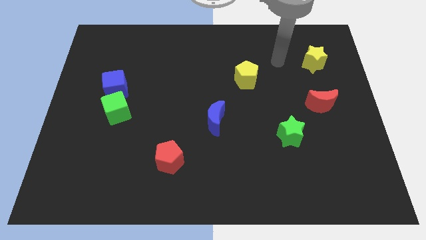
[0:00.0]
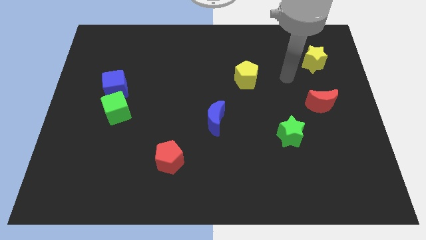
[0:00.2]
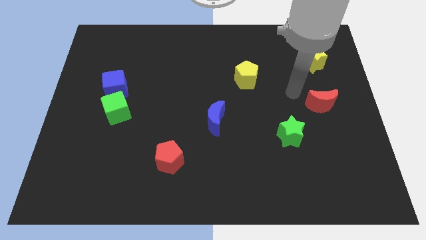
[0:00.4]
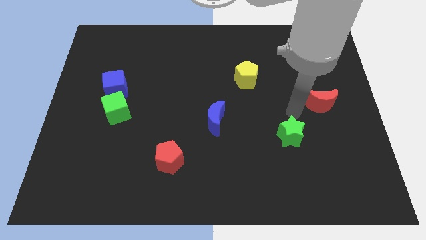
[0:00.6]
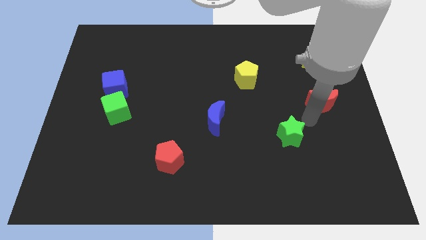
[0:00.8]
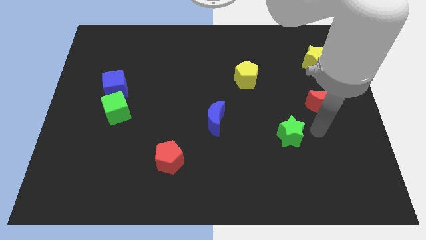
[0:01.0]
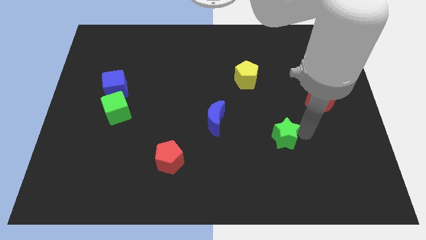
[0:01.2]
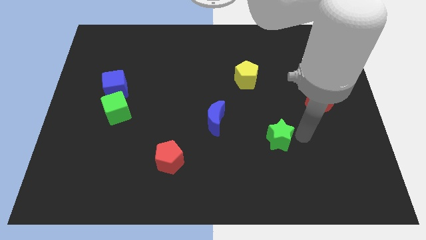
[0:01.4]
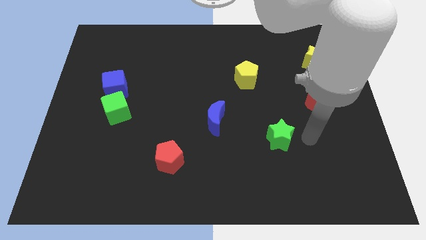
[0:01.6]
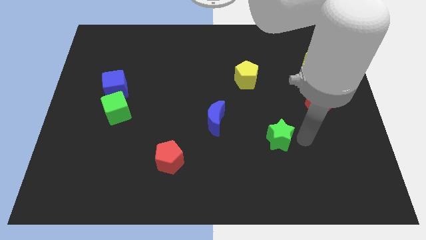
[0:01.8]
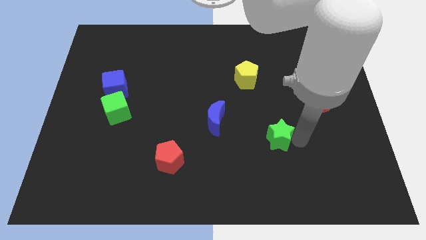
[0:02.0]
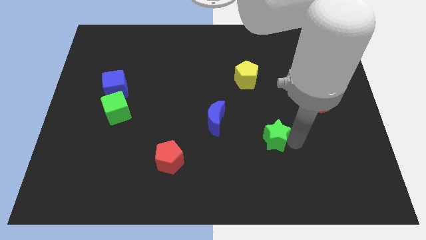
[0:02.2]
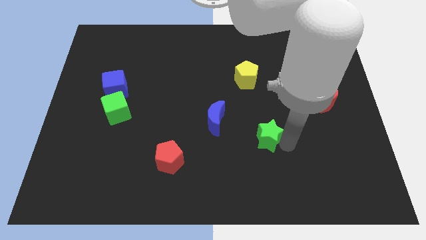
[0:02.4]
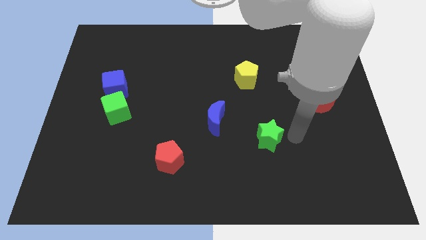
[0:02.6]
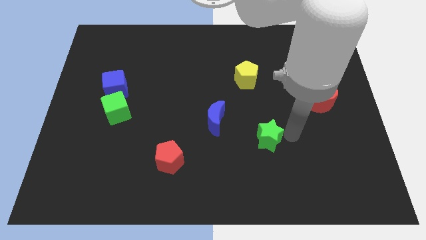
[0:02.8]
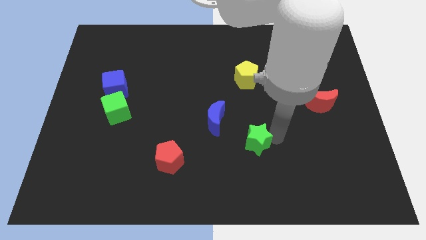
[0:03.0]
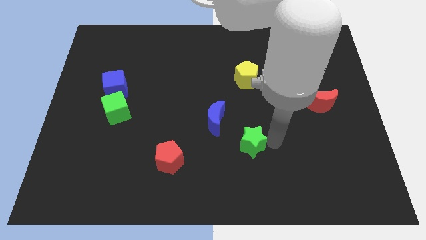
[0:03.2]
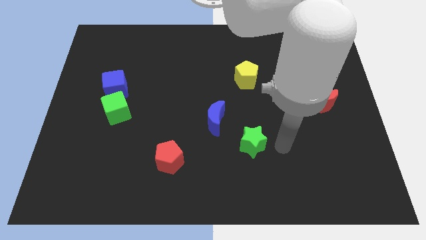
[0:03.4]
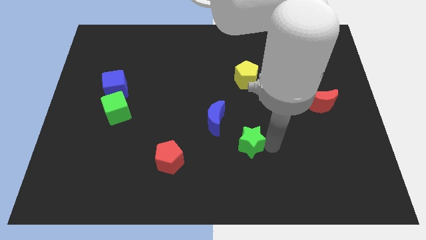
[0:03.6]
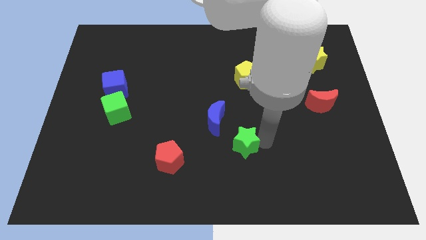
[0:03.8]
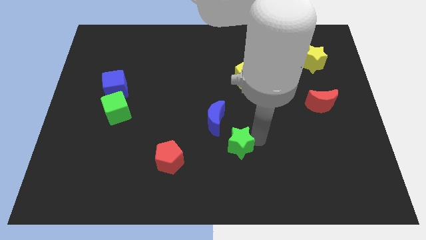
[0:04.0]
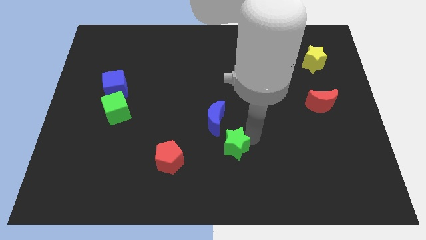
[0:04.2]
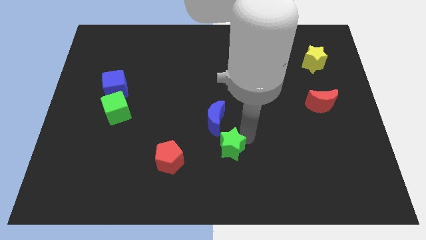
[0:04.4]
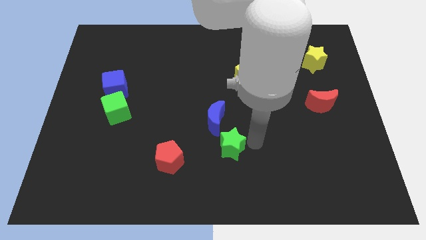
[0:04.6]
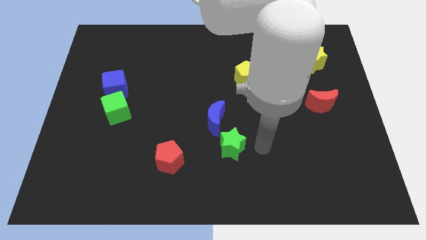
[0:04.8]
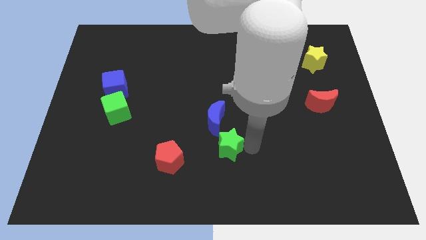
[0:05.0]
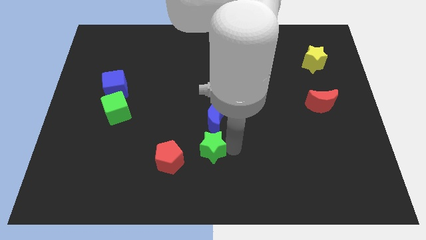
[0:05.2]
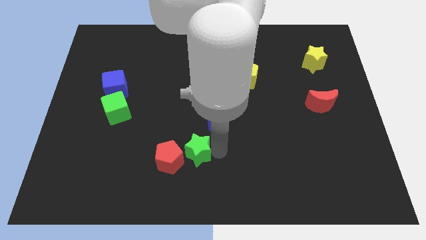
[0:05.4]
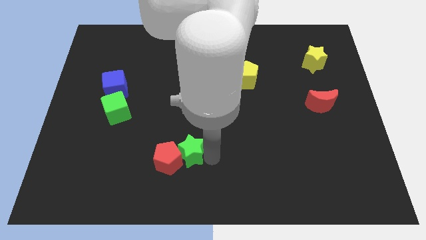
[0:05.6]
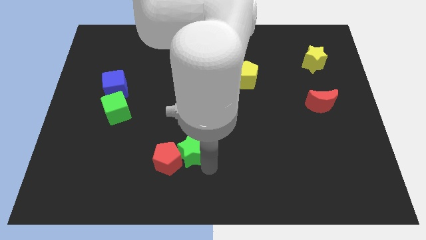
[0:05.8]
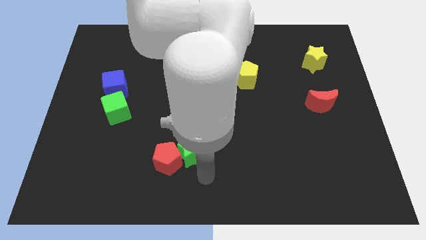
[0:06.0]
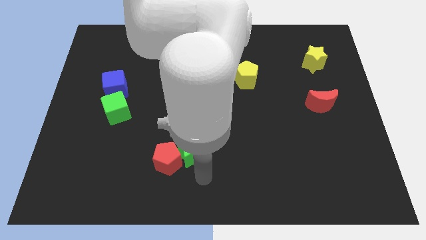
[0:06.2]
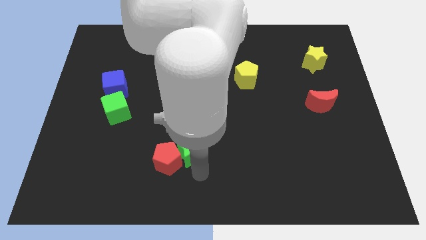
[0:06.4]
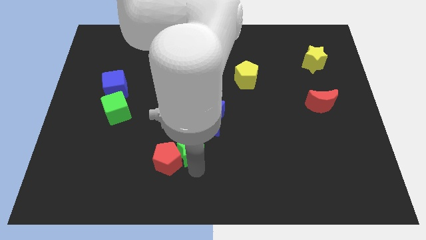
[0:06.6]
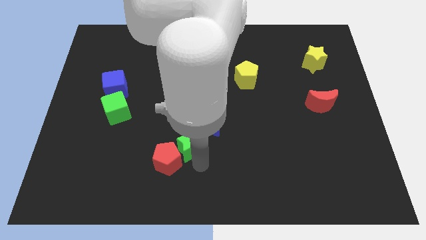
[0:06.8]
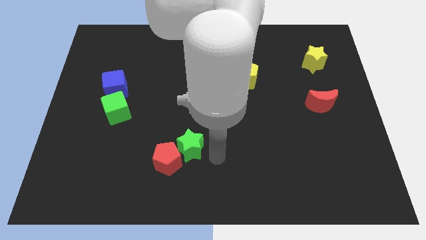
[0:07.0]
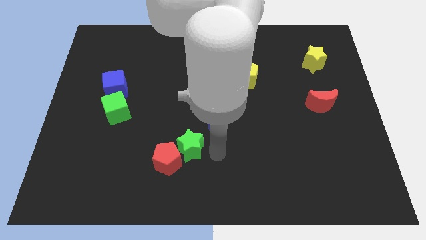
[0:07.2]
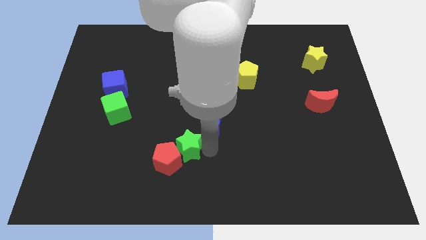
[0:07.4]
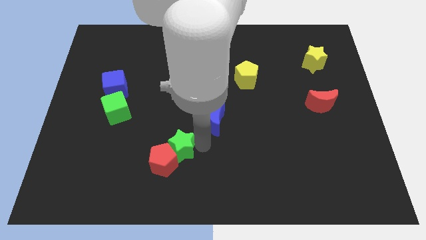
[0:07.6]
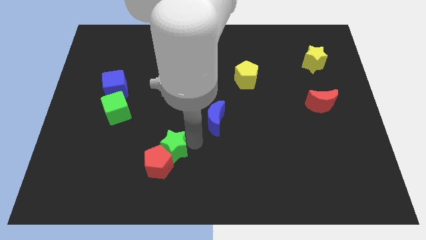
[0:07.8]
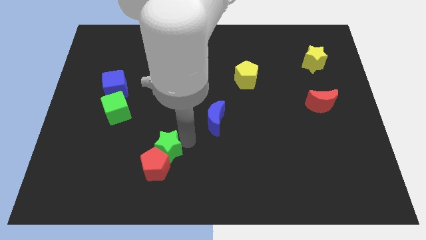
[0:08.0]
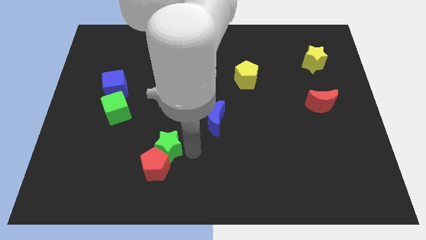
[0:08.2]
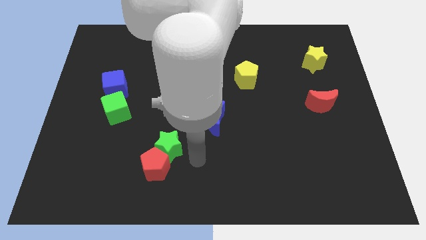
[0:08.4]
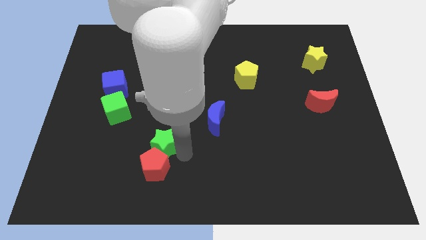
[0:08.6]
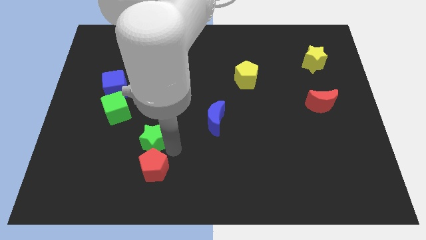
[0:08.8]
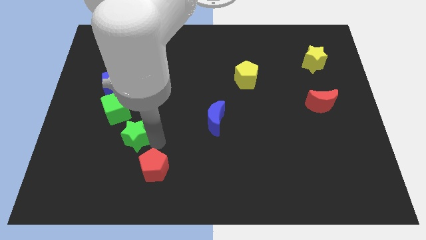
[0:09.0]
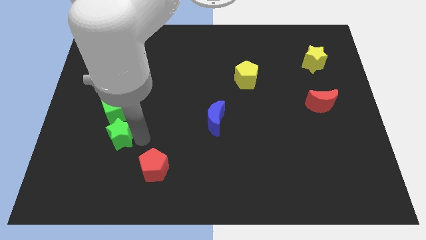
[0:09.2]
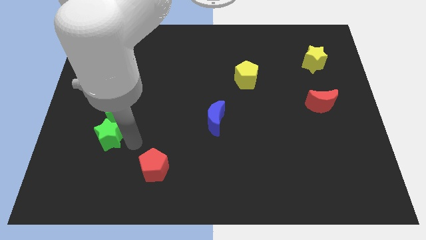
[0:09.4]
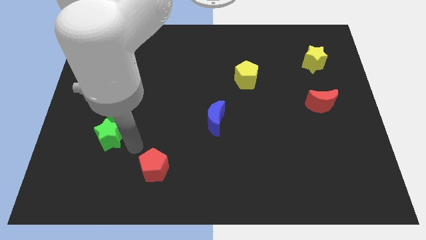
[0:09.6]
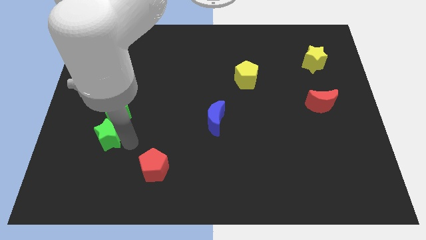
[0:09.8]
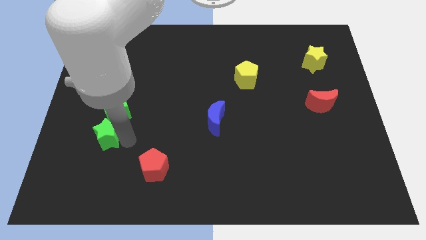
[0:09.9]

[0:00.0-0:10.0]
slide the green star to the bottom left side of the green cube

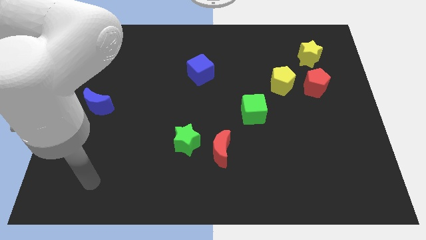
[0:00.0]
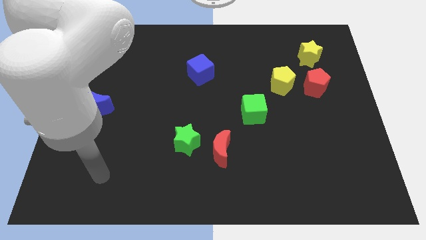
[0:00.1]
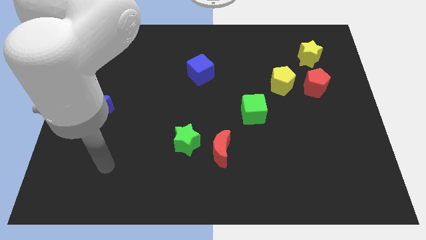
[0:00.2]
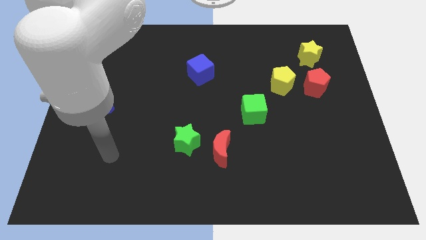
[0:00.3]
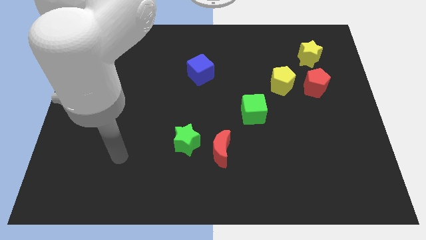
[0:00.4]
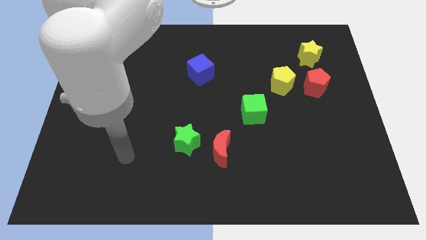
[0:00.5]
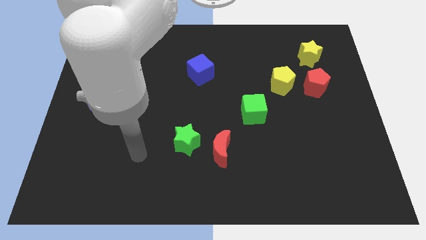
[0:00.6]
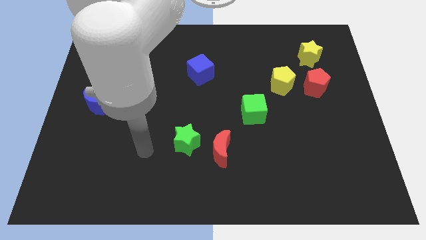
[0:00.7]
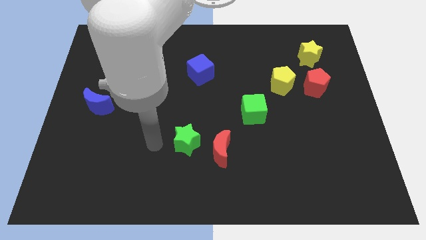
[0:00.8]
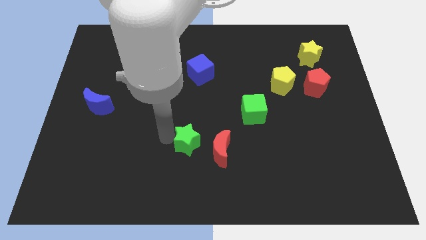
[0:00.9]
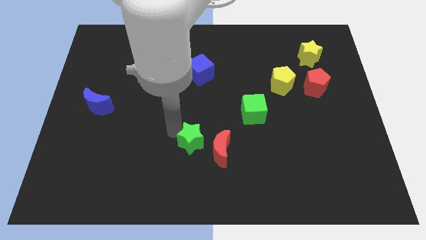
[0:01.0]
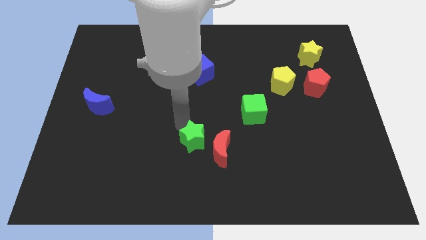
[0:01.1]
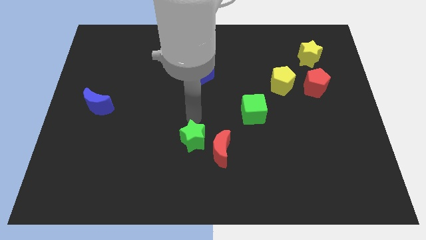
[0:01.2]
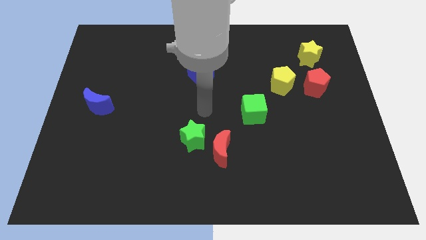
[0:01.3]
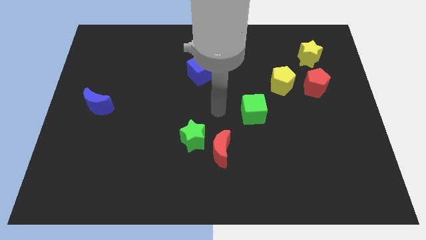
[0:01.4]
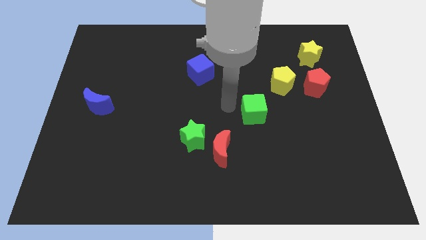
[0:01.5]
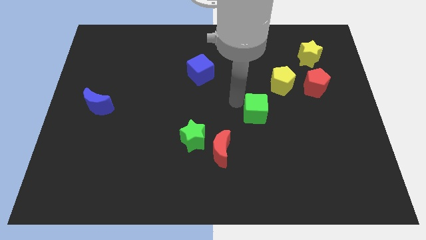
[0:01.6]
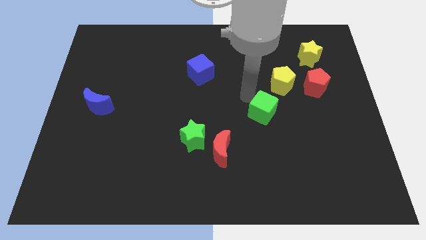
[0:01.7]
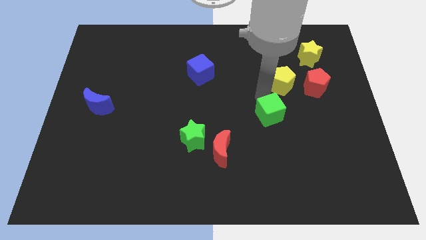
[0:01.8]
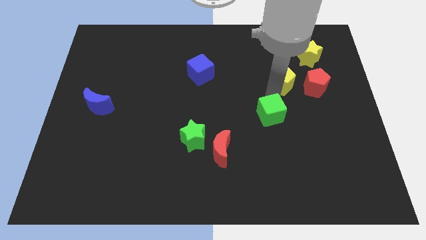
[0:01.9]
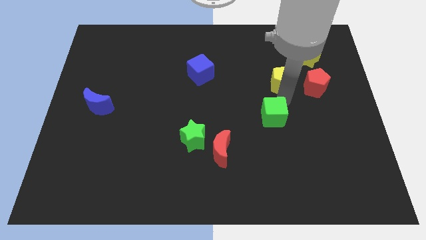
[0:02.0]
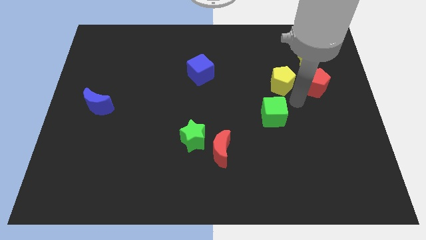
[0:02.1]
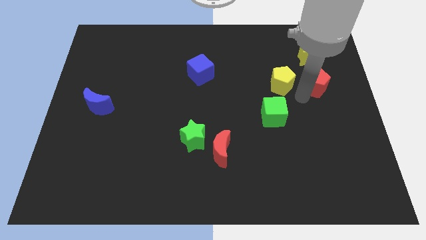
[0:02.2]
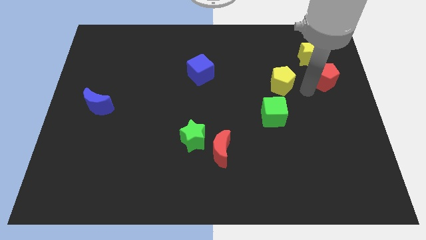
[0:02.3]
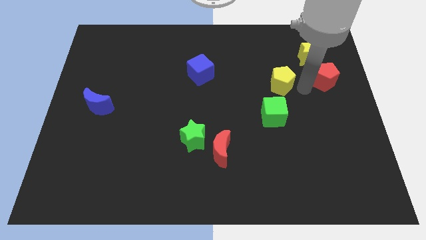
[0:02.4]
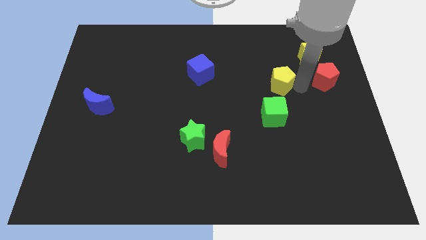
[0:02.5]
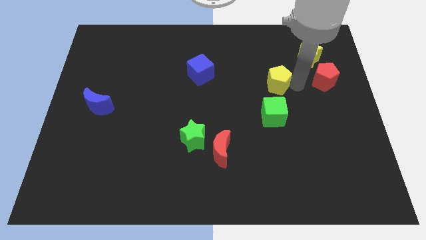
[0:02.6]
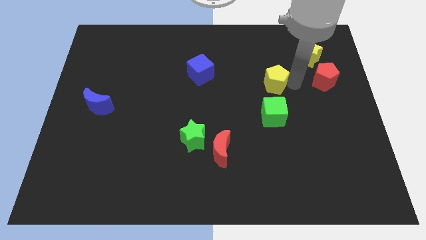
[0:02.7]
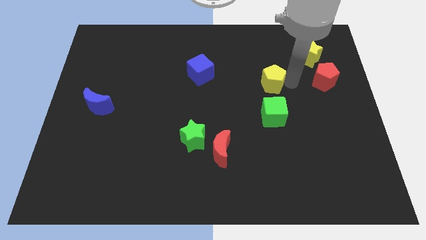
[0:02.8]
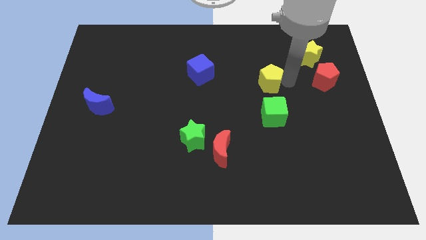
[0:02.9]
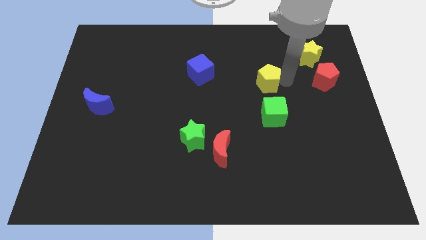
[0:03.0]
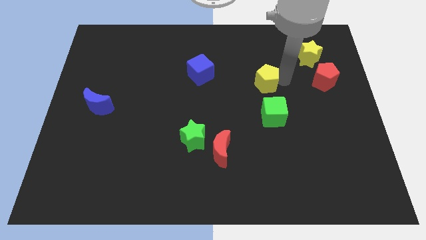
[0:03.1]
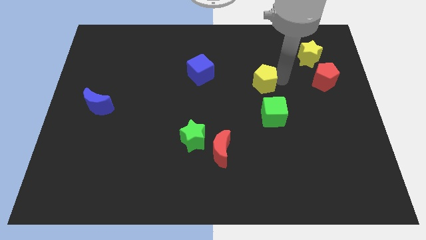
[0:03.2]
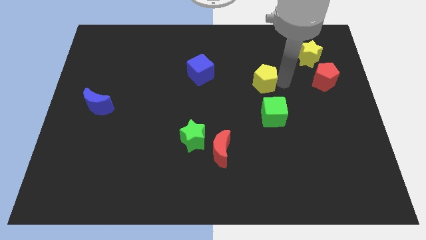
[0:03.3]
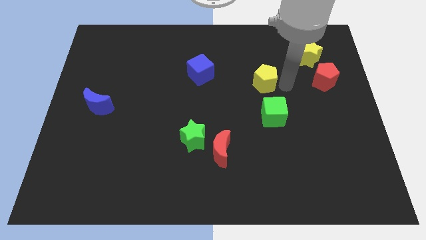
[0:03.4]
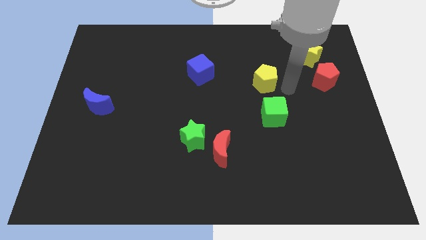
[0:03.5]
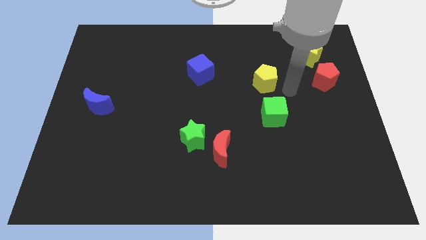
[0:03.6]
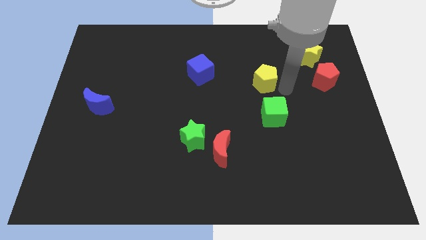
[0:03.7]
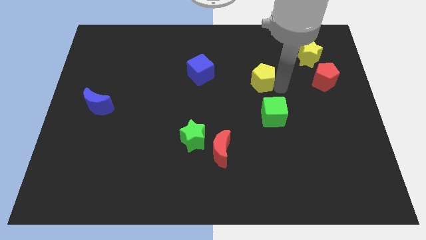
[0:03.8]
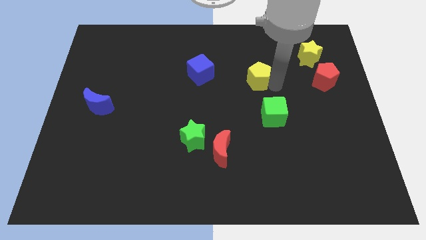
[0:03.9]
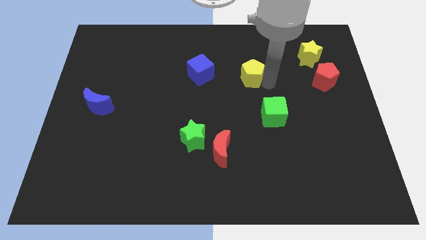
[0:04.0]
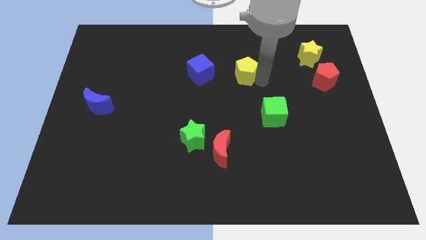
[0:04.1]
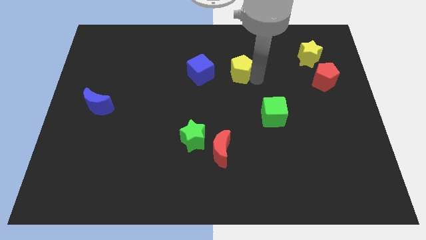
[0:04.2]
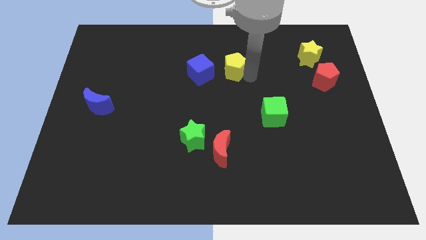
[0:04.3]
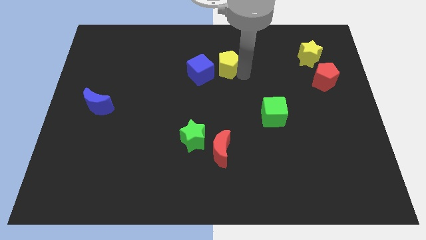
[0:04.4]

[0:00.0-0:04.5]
push the yellow pentagon diagonally up and to the right of the blue cube
